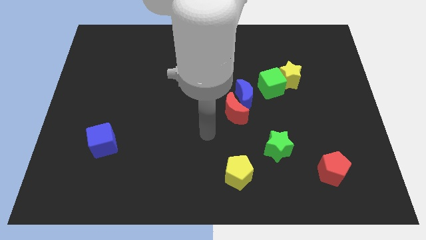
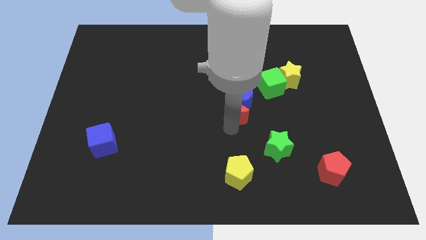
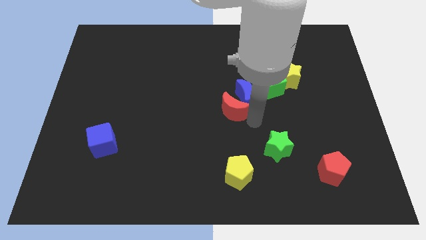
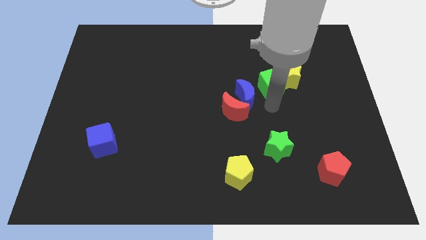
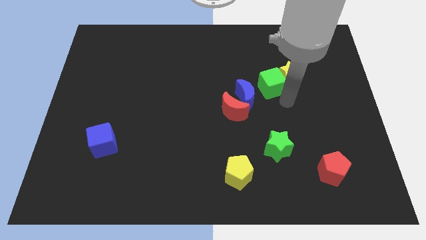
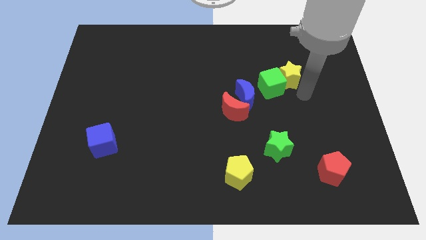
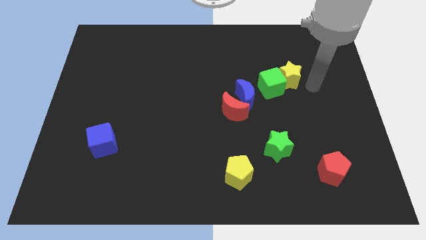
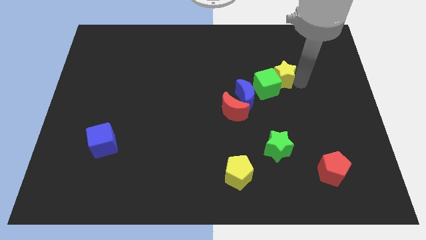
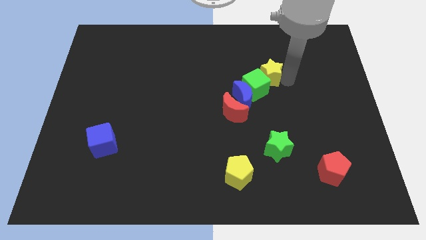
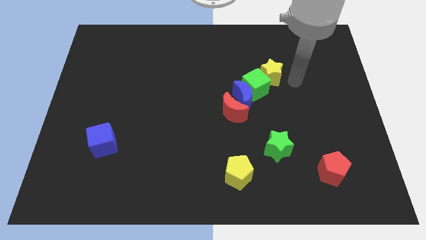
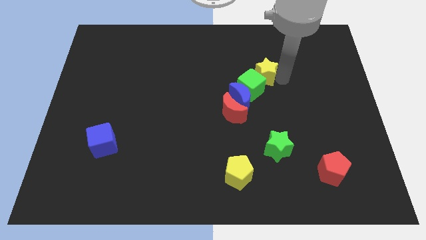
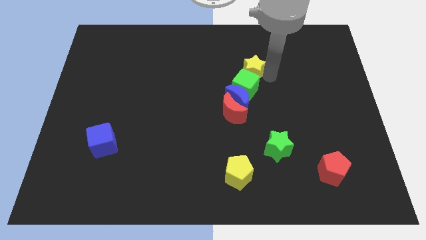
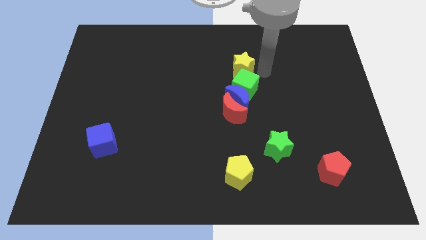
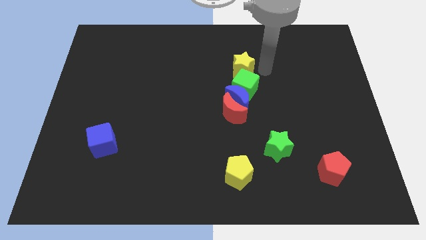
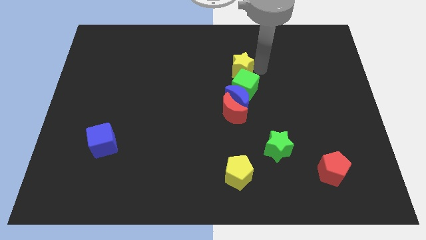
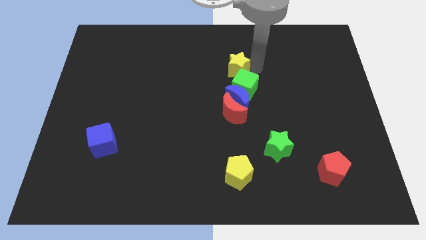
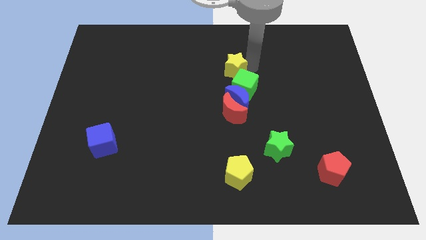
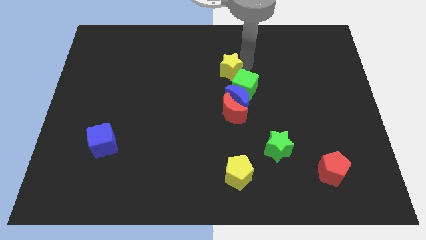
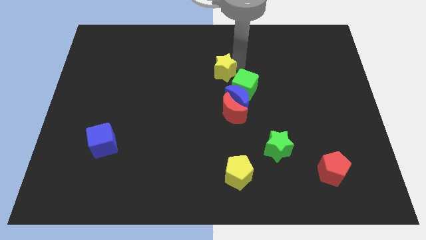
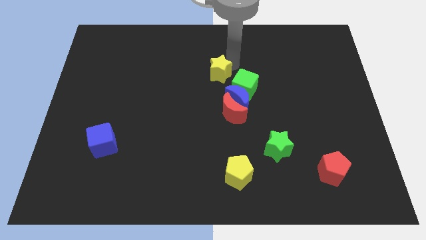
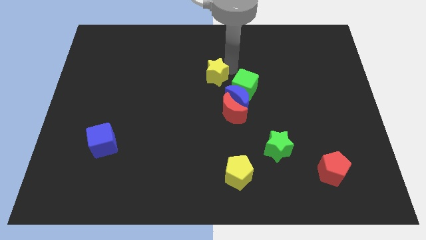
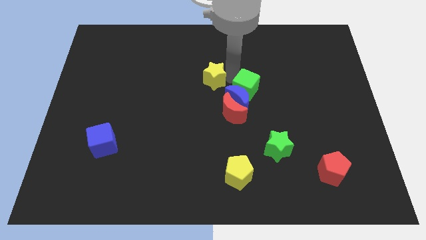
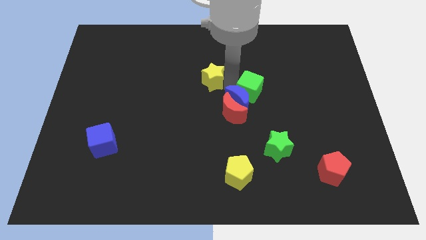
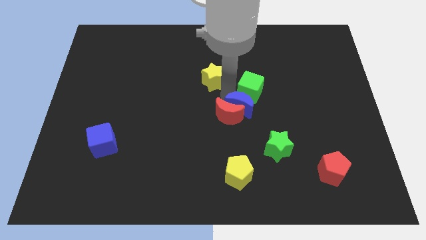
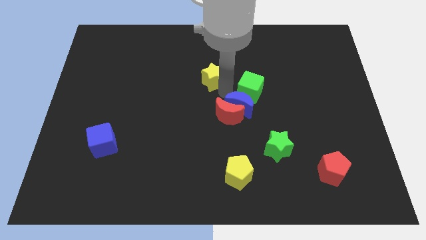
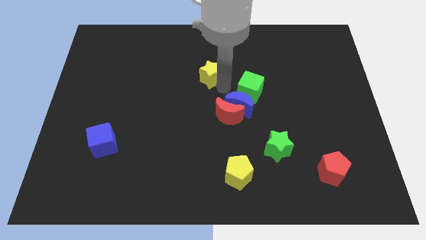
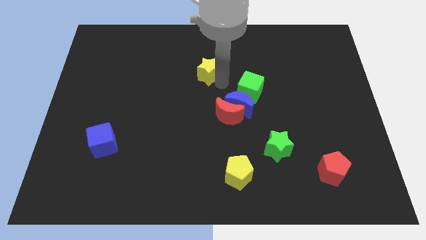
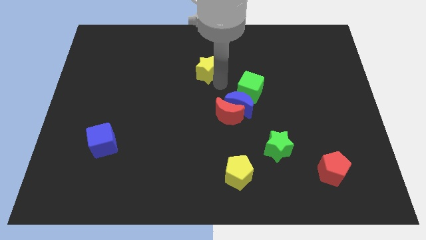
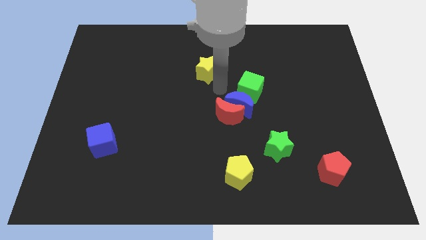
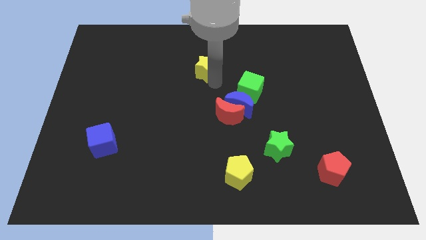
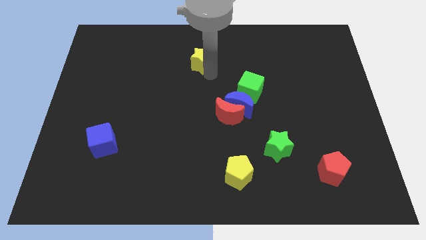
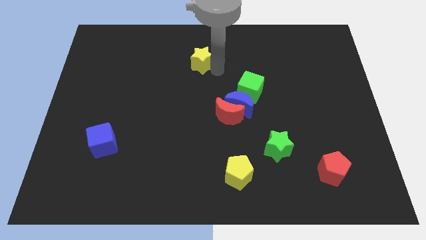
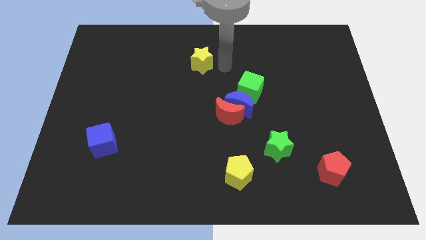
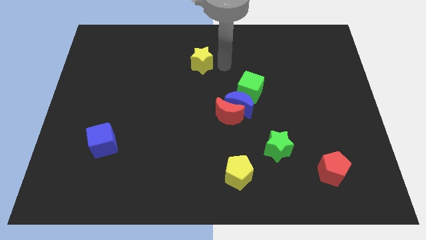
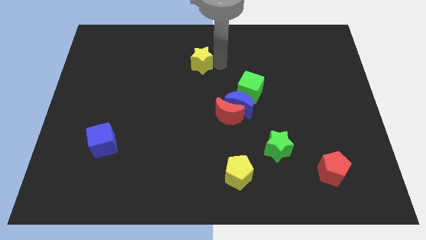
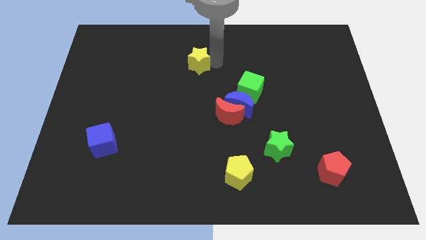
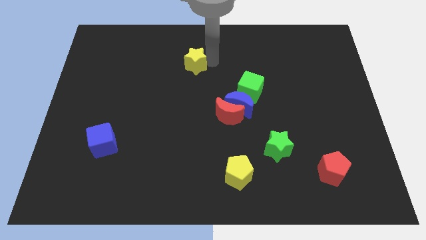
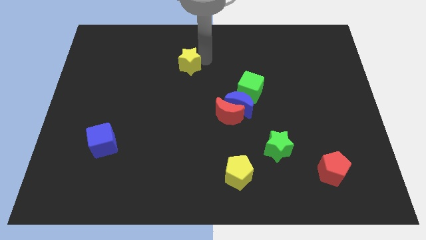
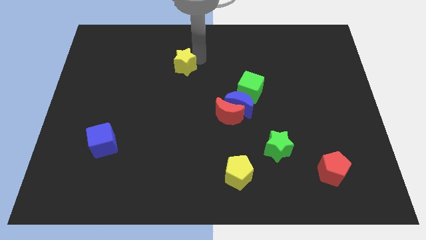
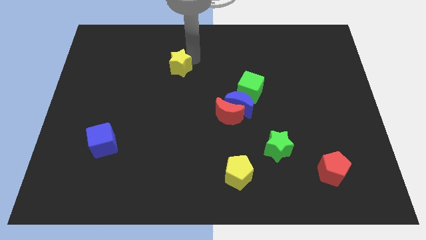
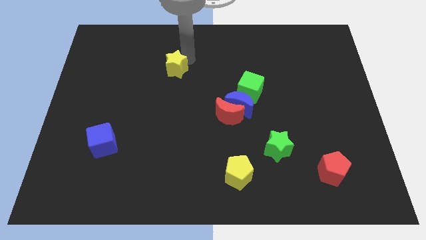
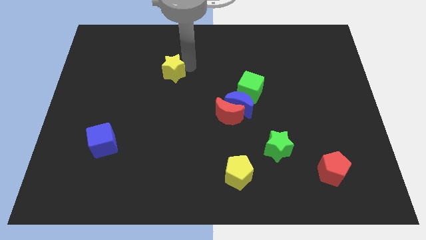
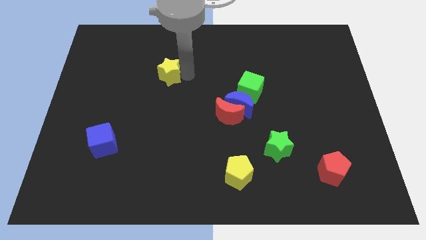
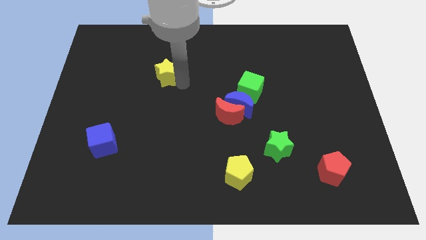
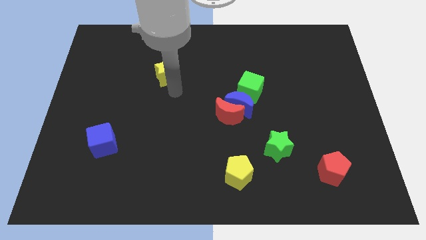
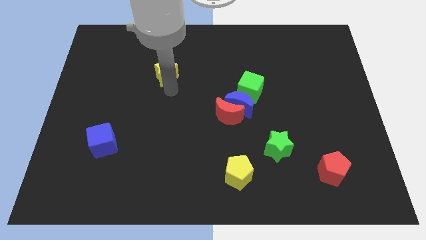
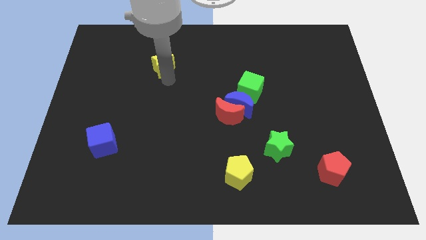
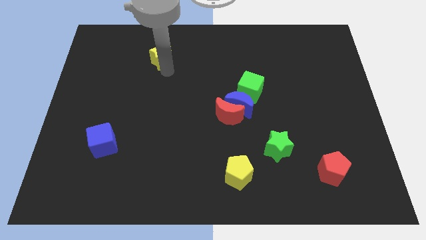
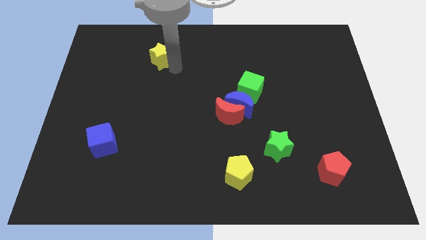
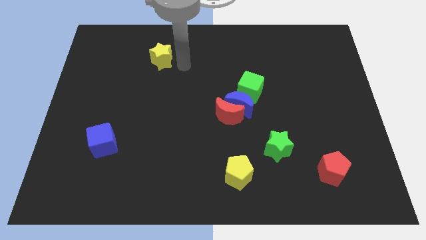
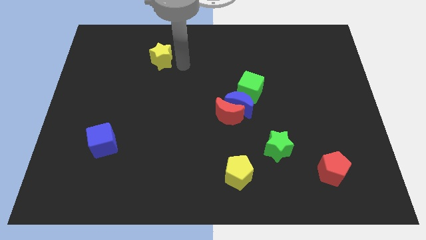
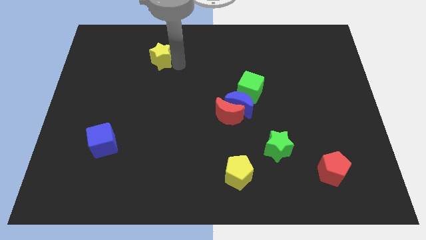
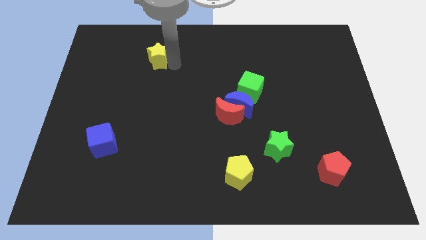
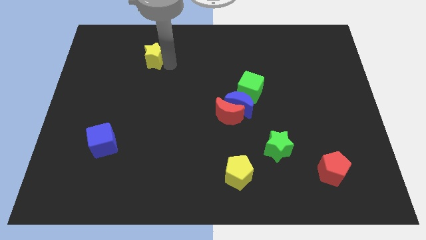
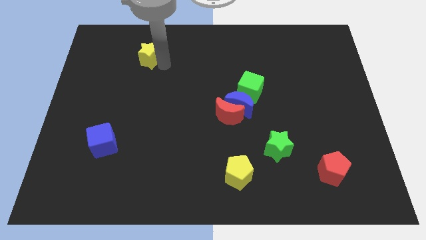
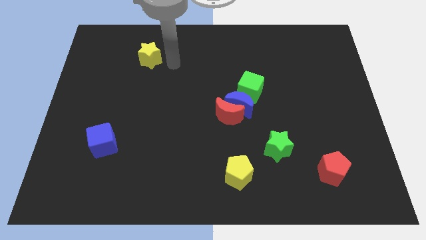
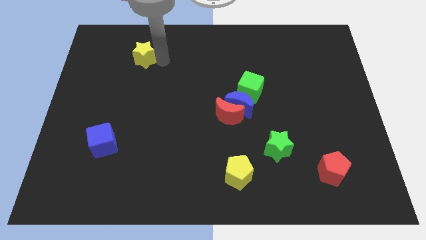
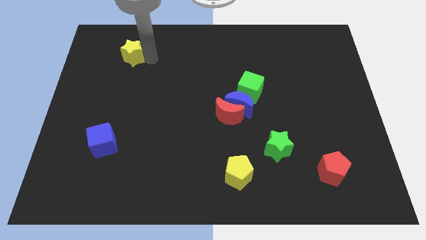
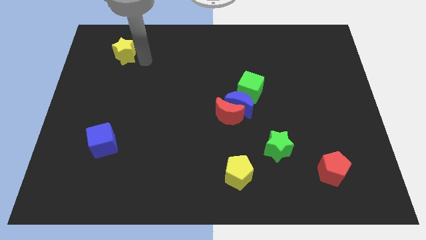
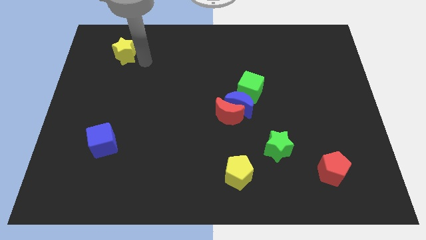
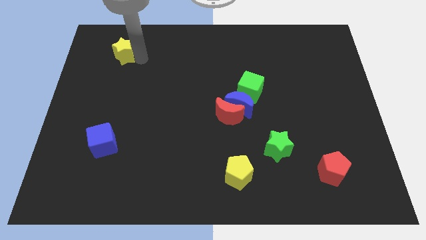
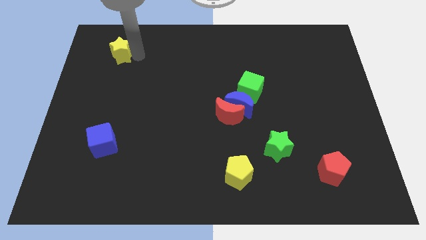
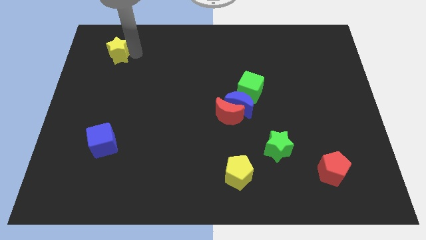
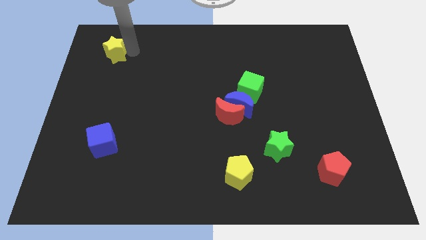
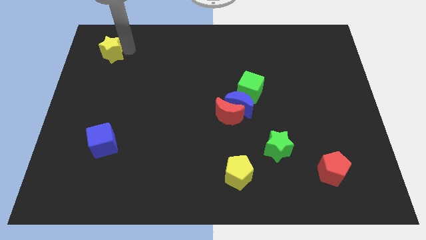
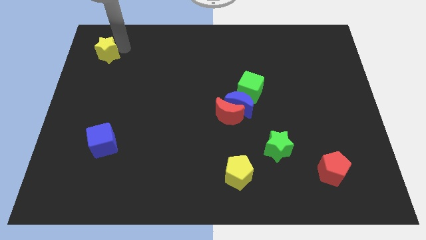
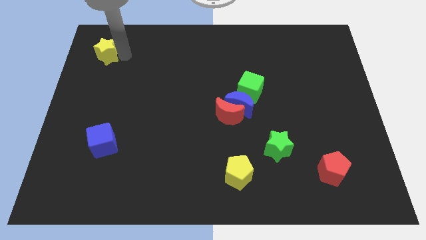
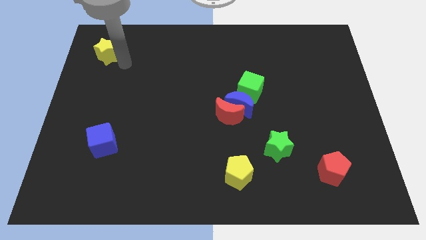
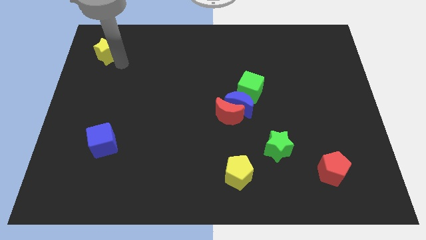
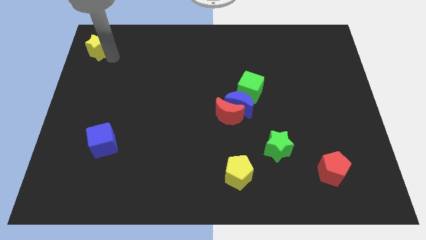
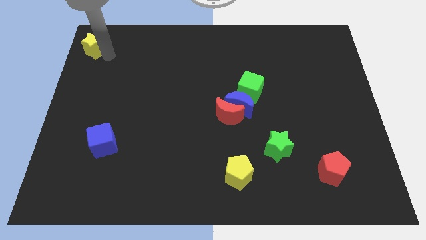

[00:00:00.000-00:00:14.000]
push the yellow star to the top left corner
